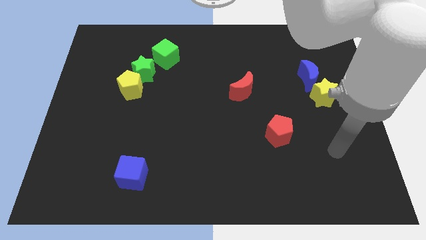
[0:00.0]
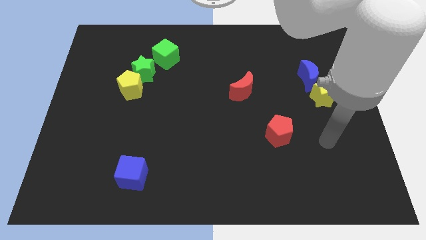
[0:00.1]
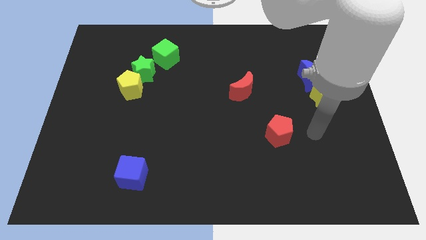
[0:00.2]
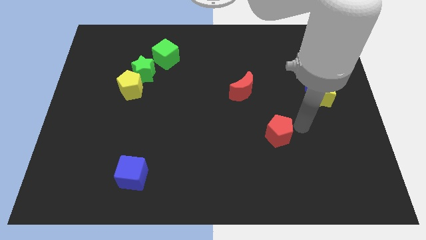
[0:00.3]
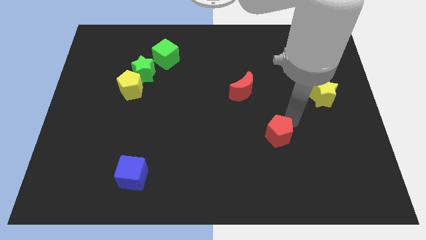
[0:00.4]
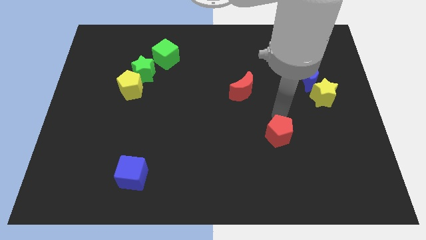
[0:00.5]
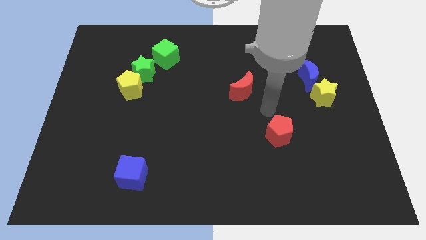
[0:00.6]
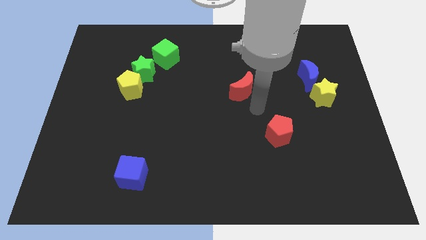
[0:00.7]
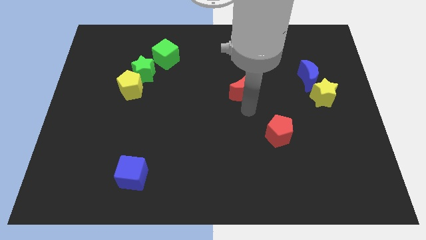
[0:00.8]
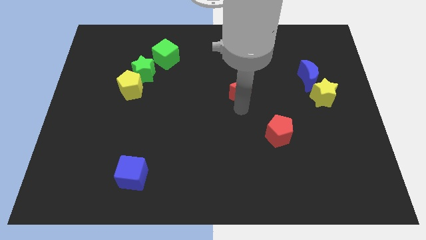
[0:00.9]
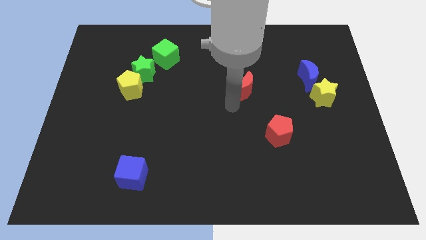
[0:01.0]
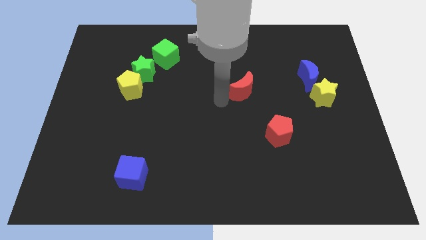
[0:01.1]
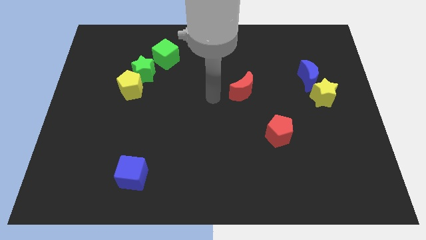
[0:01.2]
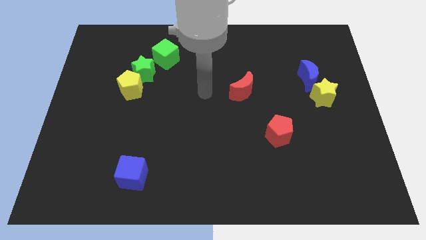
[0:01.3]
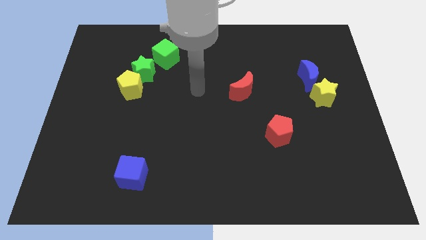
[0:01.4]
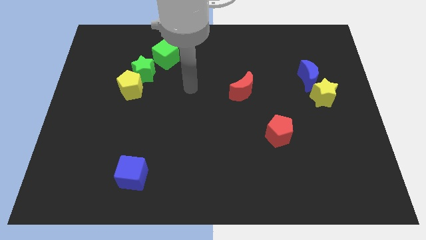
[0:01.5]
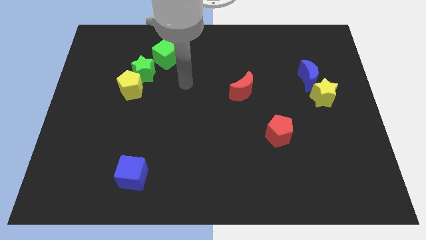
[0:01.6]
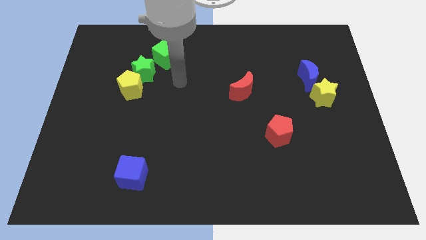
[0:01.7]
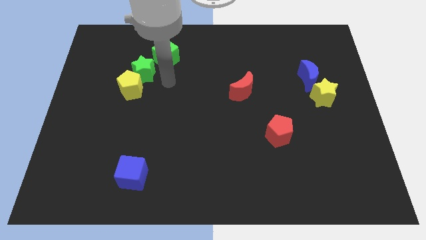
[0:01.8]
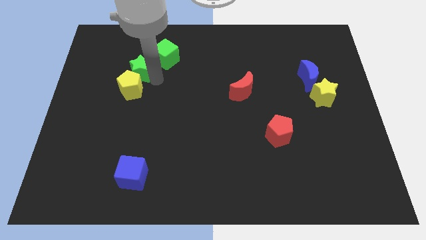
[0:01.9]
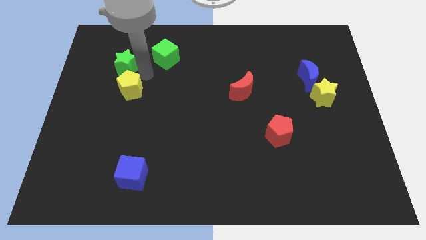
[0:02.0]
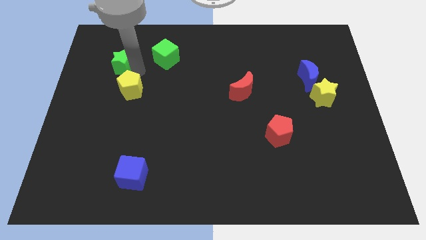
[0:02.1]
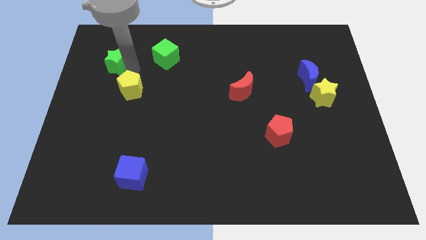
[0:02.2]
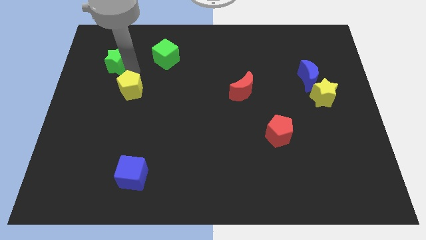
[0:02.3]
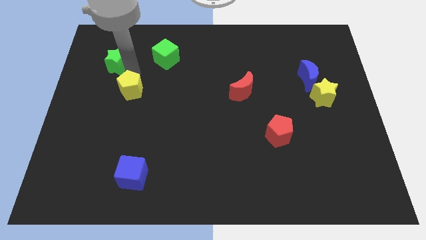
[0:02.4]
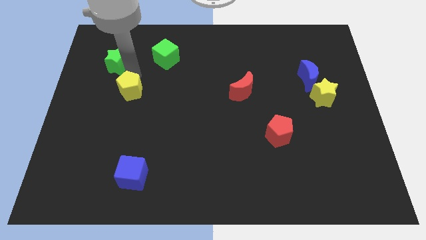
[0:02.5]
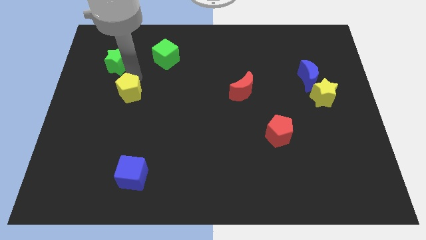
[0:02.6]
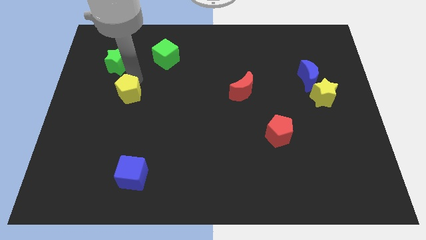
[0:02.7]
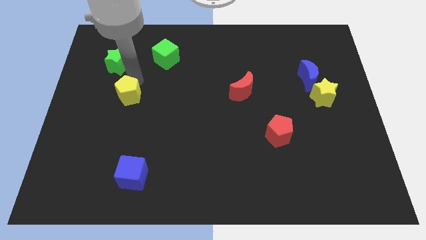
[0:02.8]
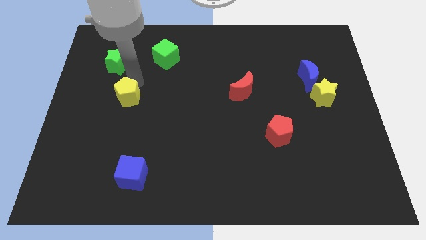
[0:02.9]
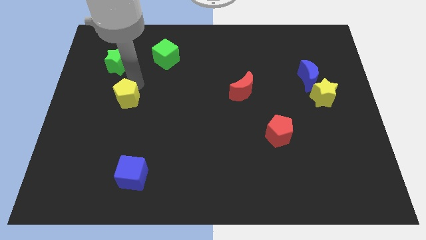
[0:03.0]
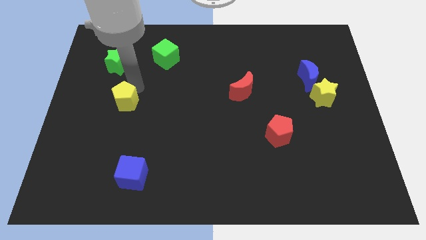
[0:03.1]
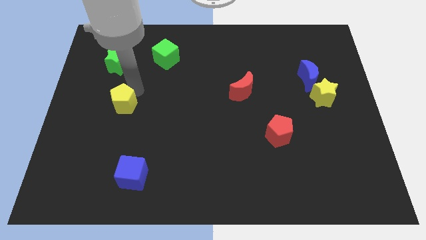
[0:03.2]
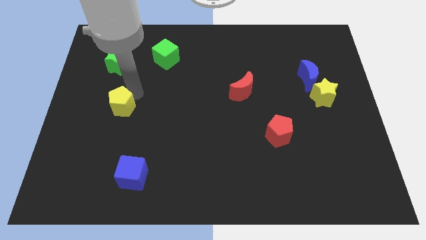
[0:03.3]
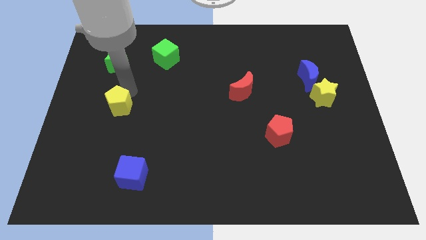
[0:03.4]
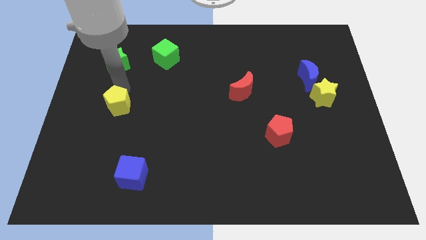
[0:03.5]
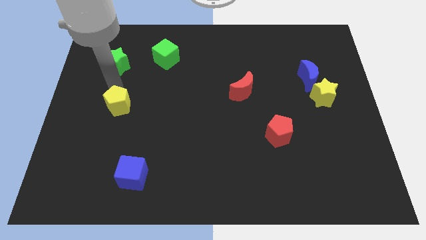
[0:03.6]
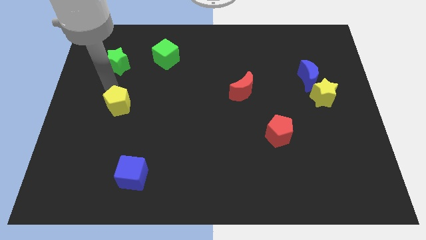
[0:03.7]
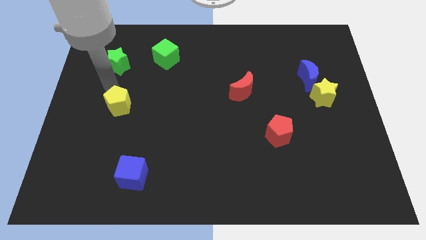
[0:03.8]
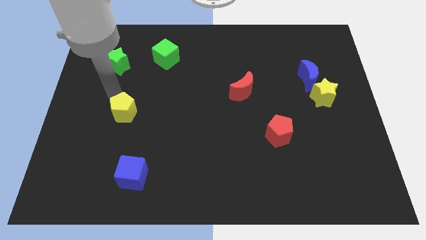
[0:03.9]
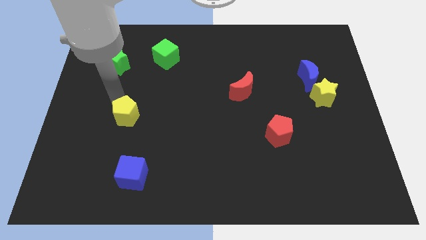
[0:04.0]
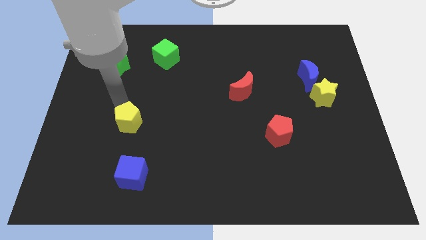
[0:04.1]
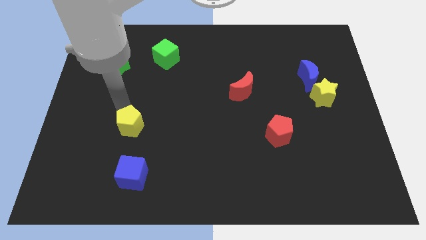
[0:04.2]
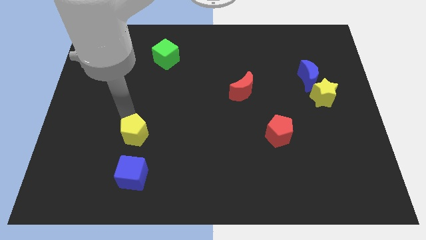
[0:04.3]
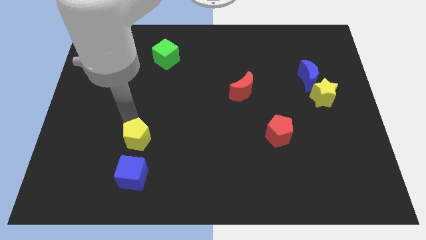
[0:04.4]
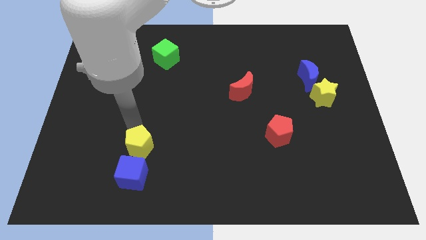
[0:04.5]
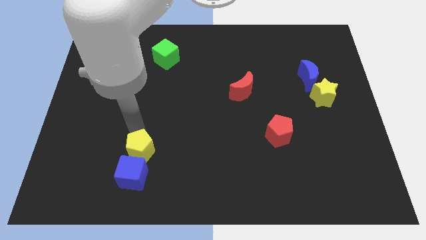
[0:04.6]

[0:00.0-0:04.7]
slide the yellow pentagon to the blue cube

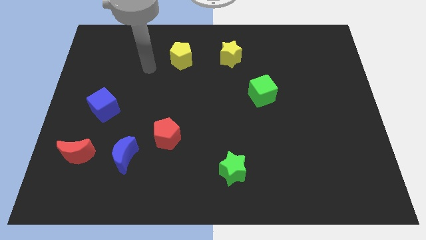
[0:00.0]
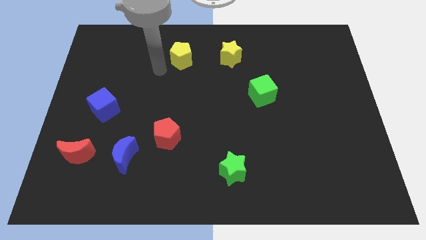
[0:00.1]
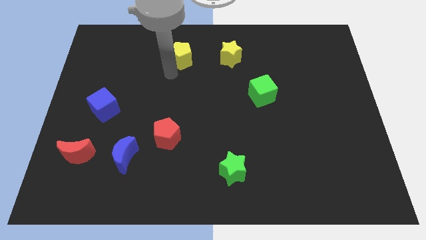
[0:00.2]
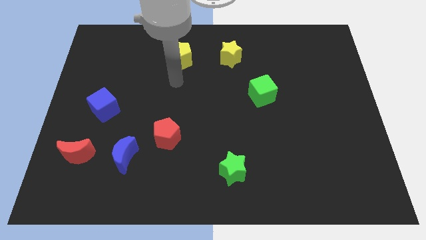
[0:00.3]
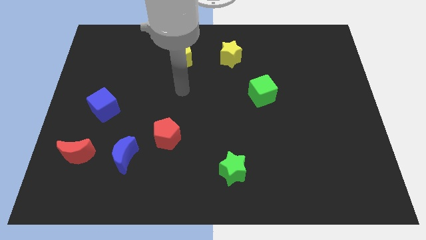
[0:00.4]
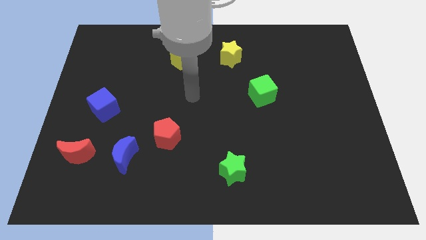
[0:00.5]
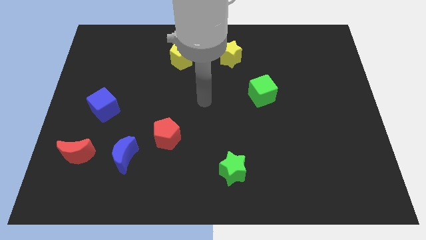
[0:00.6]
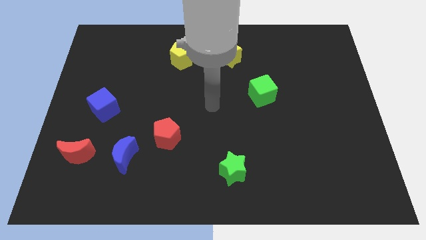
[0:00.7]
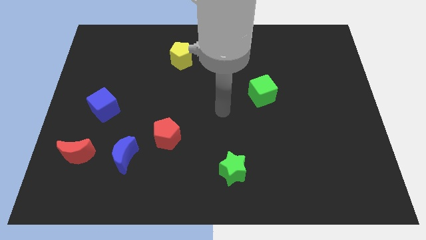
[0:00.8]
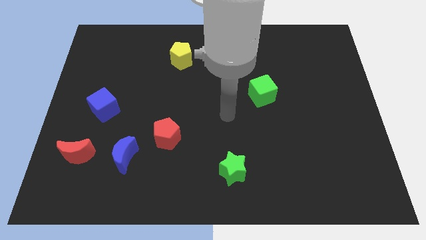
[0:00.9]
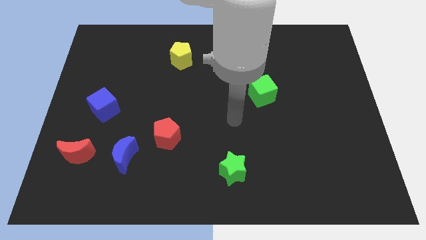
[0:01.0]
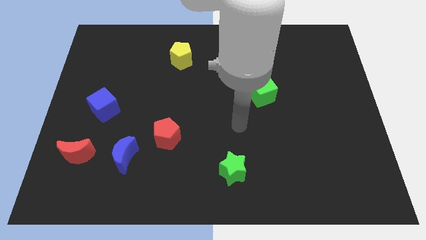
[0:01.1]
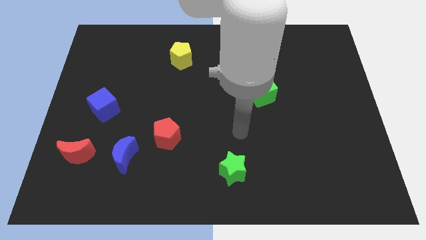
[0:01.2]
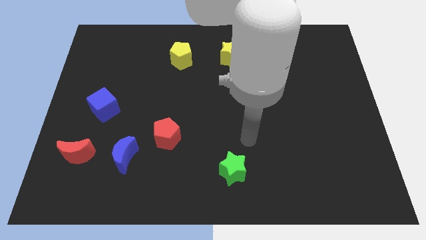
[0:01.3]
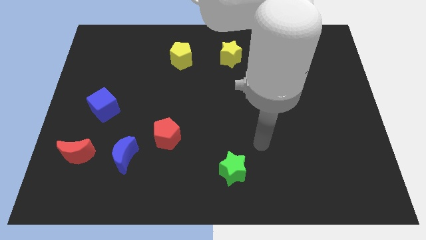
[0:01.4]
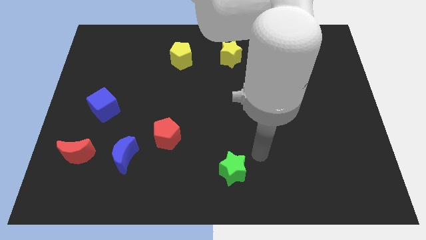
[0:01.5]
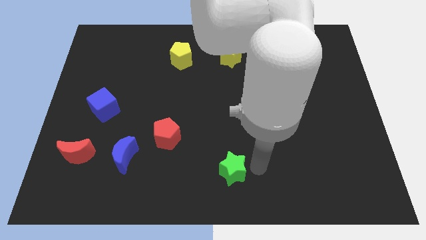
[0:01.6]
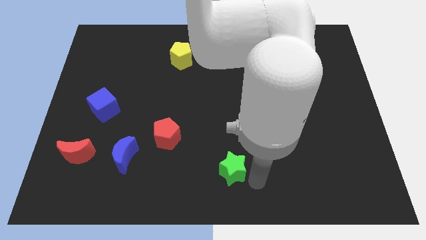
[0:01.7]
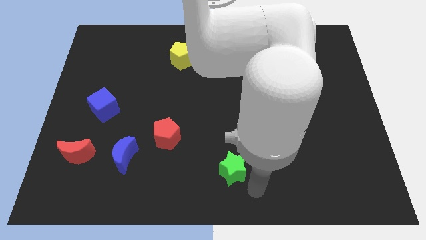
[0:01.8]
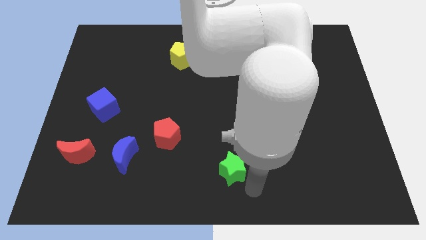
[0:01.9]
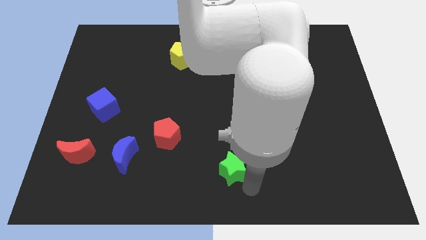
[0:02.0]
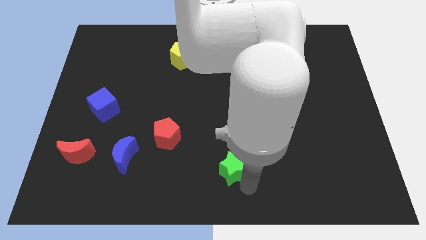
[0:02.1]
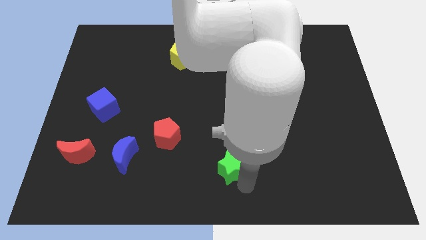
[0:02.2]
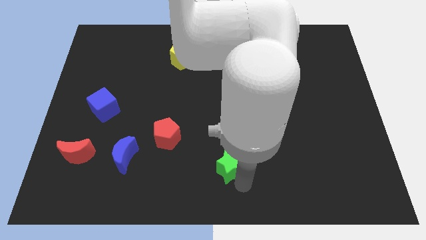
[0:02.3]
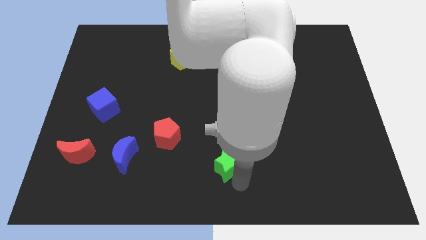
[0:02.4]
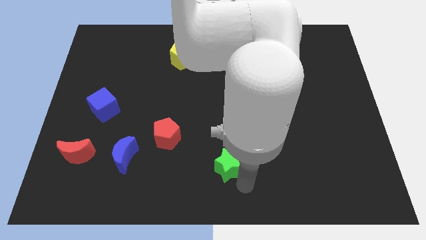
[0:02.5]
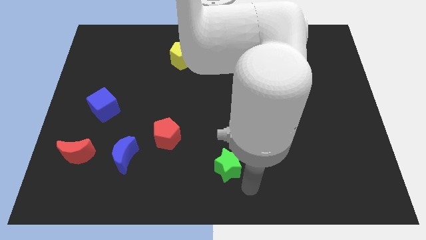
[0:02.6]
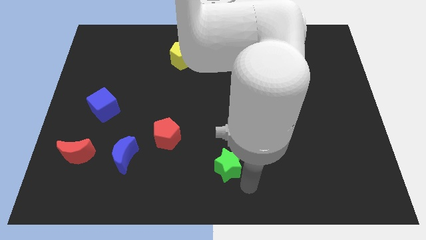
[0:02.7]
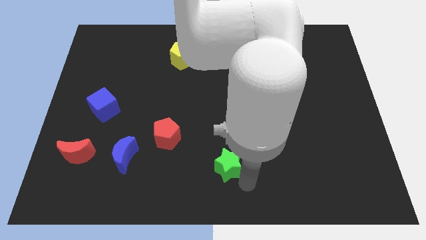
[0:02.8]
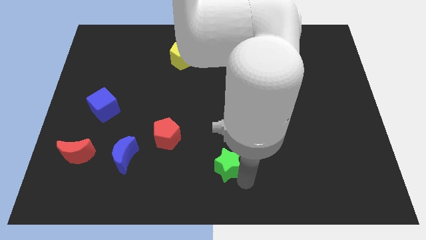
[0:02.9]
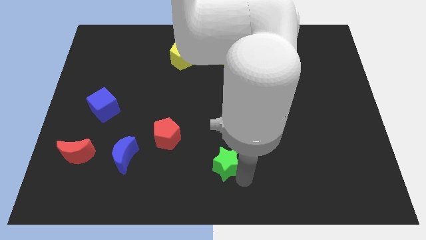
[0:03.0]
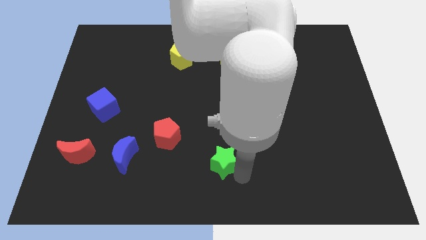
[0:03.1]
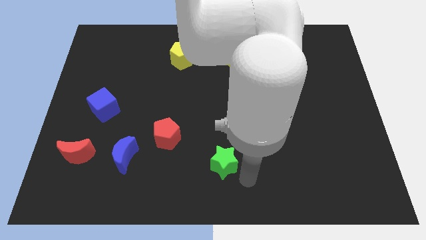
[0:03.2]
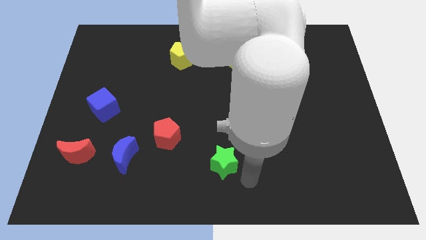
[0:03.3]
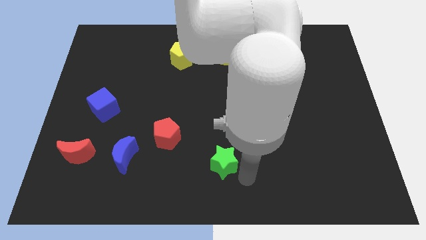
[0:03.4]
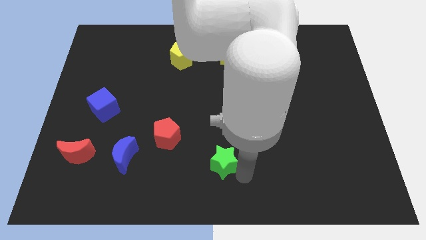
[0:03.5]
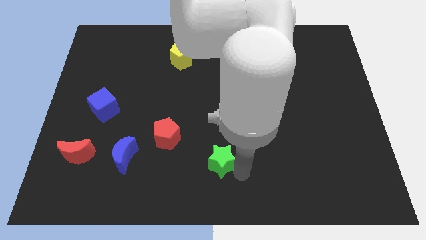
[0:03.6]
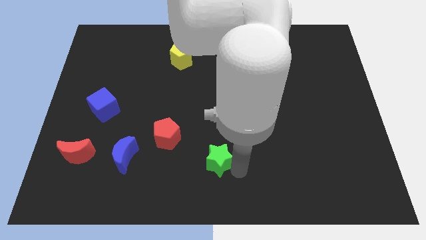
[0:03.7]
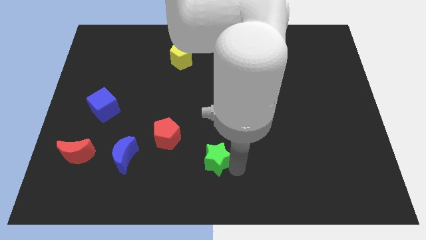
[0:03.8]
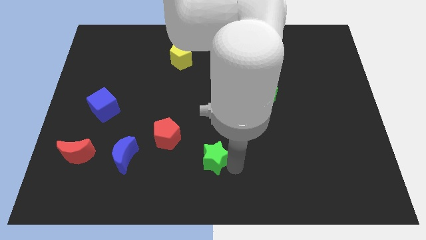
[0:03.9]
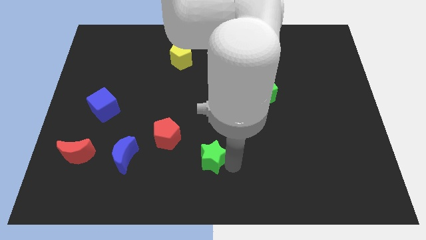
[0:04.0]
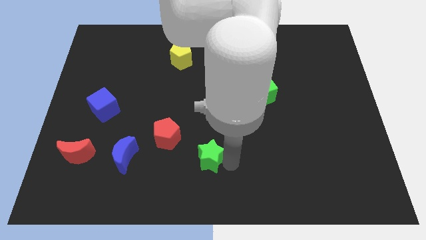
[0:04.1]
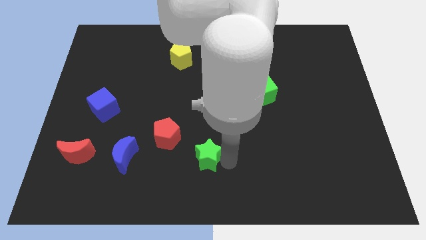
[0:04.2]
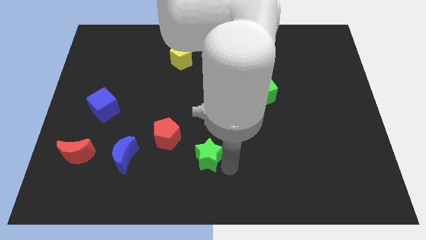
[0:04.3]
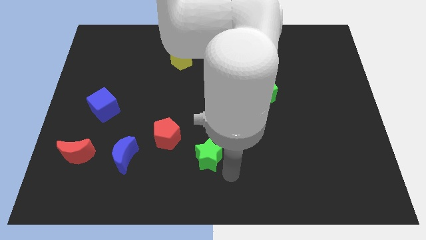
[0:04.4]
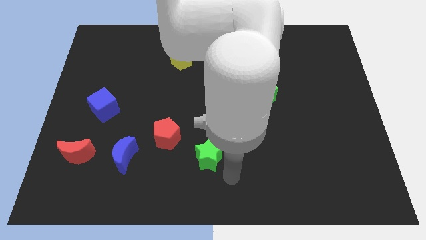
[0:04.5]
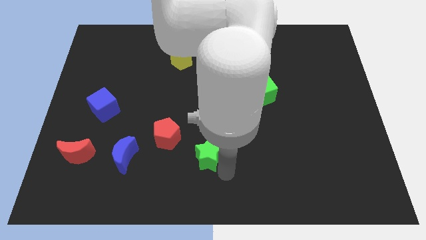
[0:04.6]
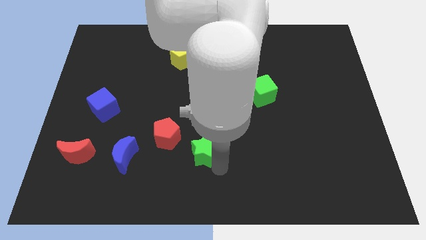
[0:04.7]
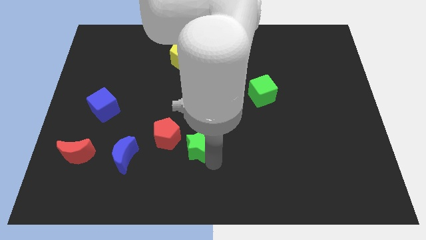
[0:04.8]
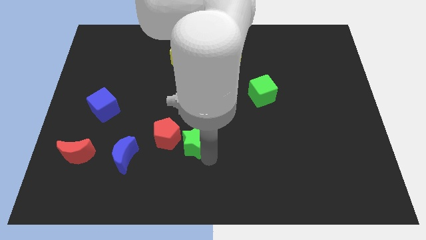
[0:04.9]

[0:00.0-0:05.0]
put the green star next to the red pentagon
